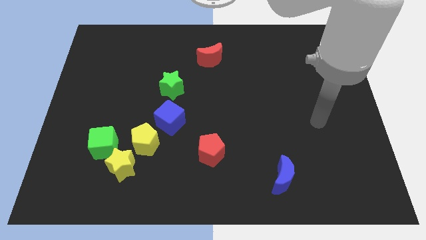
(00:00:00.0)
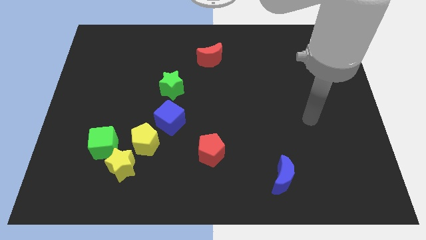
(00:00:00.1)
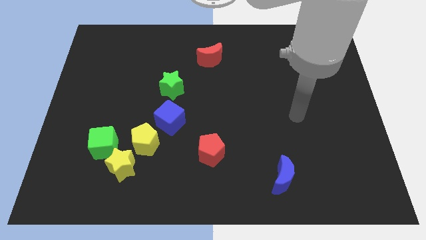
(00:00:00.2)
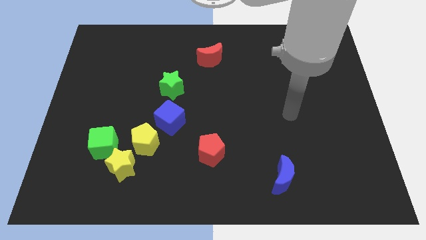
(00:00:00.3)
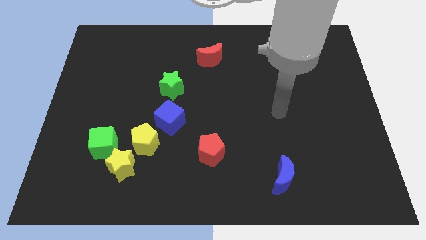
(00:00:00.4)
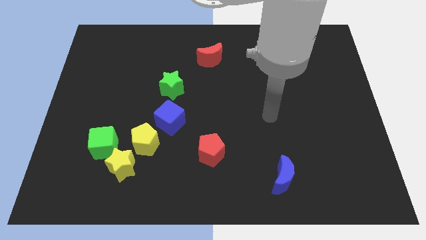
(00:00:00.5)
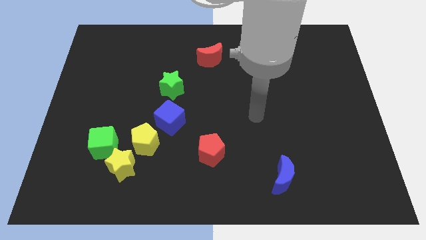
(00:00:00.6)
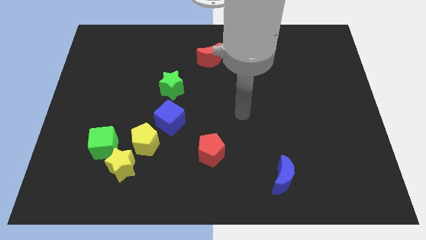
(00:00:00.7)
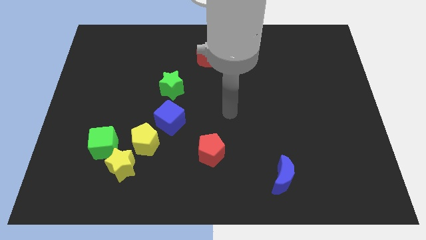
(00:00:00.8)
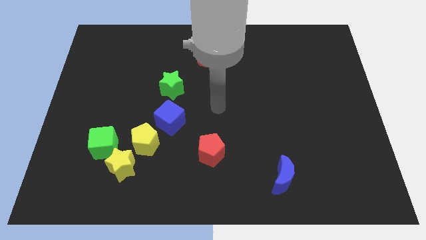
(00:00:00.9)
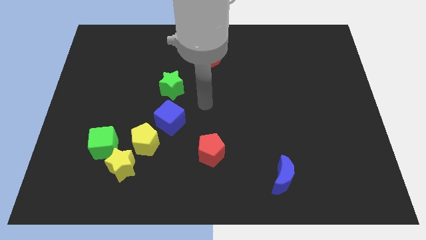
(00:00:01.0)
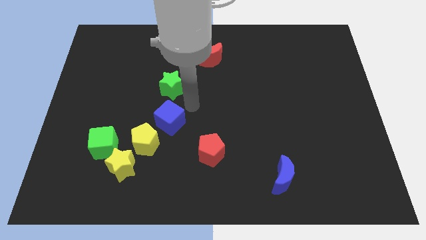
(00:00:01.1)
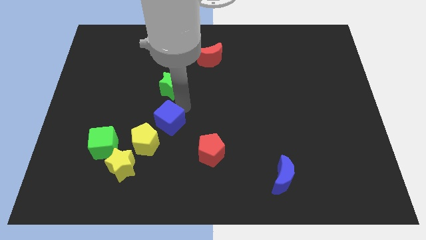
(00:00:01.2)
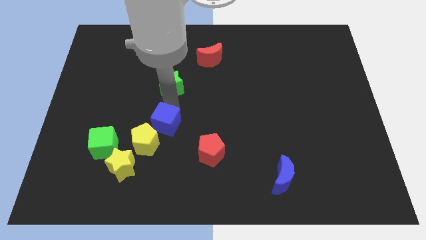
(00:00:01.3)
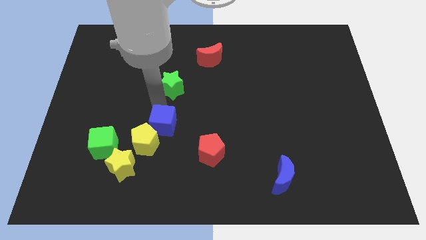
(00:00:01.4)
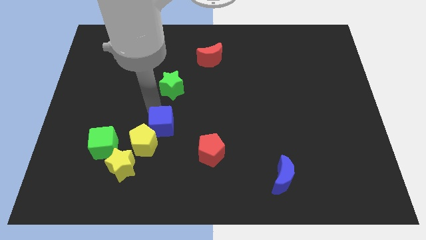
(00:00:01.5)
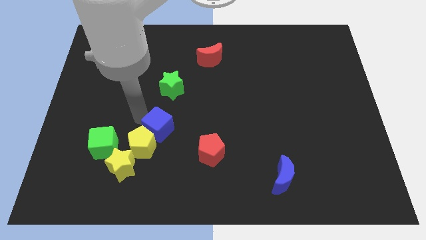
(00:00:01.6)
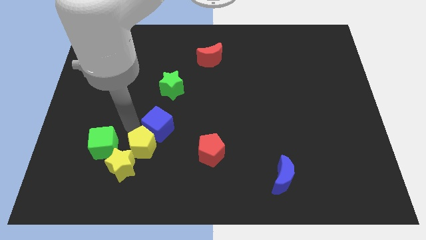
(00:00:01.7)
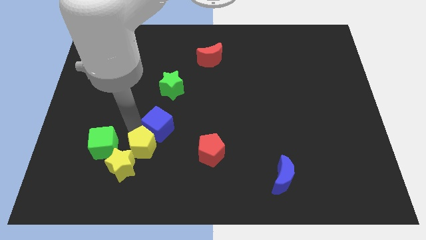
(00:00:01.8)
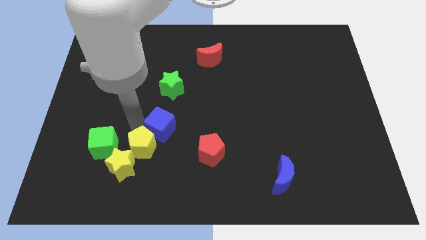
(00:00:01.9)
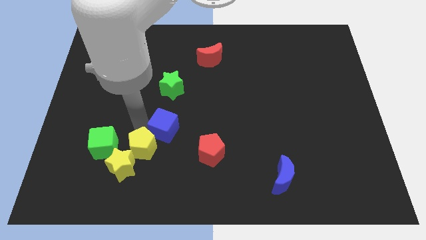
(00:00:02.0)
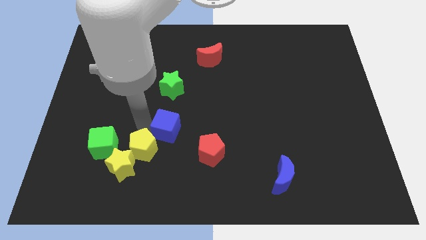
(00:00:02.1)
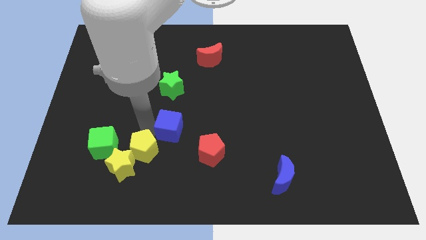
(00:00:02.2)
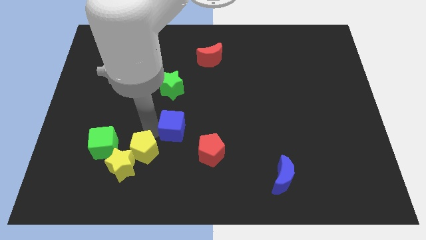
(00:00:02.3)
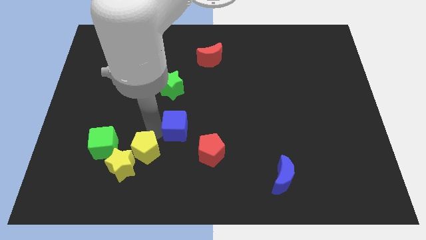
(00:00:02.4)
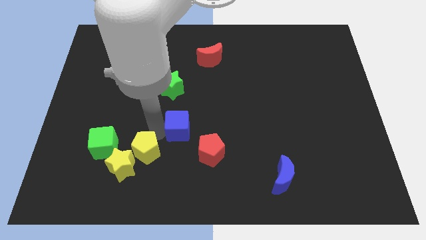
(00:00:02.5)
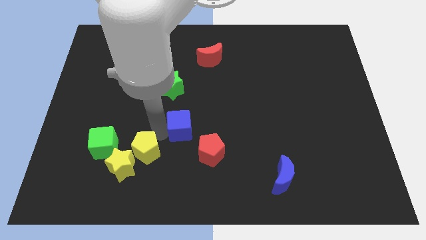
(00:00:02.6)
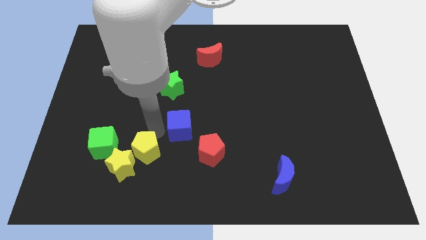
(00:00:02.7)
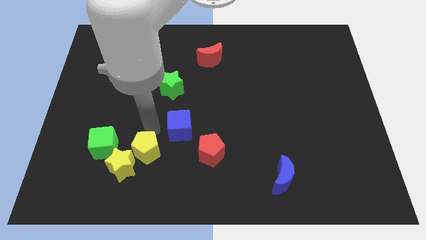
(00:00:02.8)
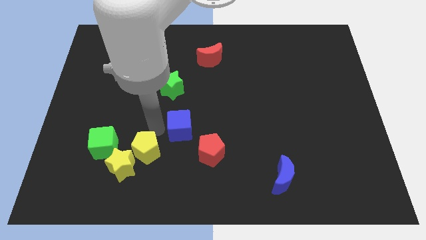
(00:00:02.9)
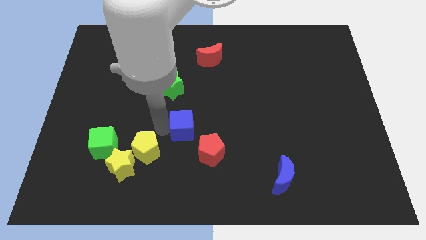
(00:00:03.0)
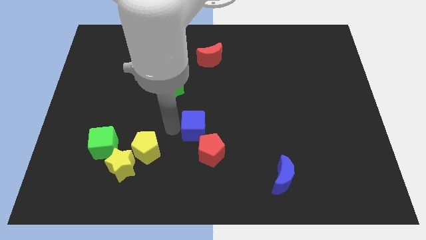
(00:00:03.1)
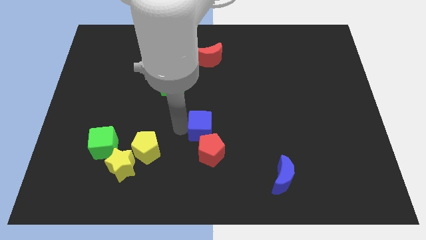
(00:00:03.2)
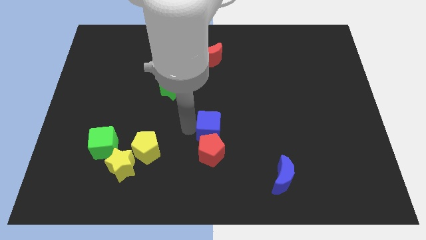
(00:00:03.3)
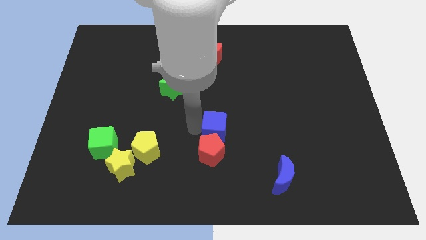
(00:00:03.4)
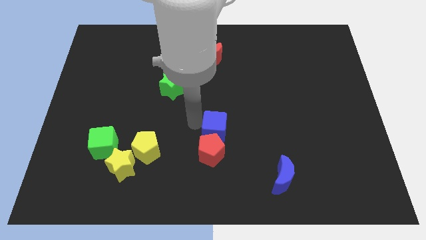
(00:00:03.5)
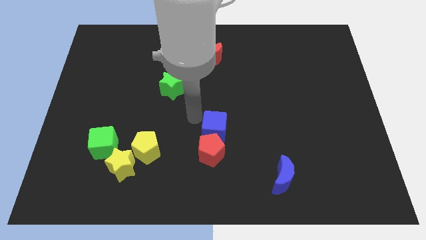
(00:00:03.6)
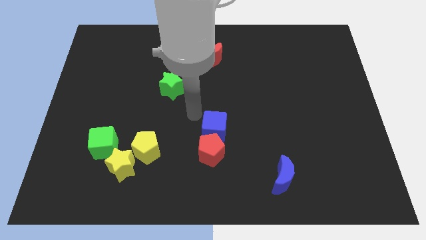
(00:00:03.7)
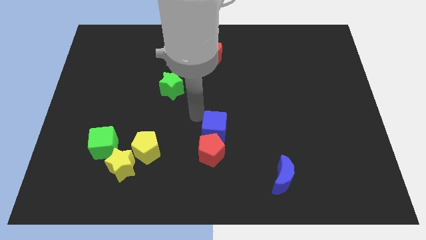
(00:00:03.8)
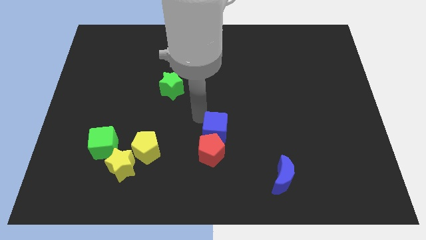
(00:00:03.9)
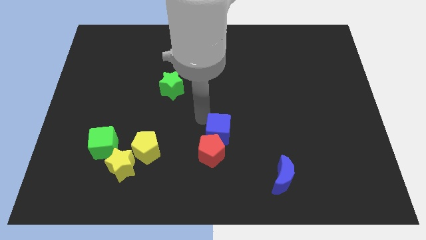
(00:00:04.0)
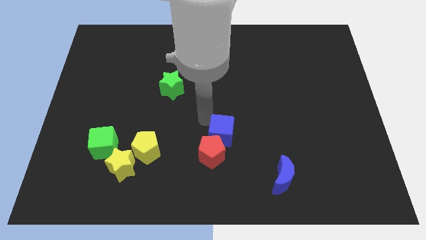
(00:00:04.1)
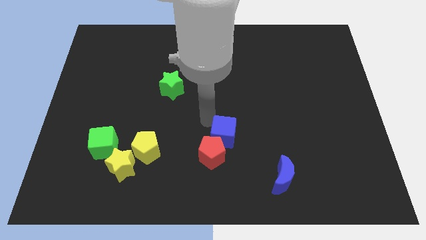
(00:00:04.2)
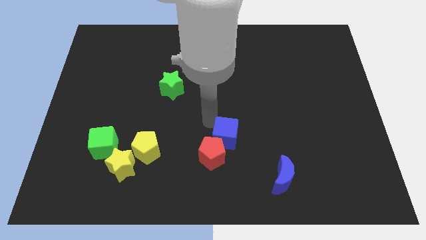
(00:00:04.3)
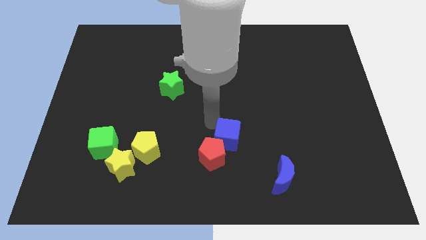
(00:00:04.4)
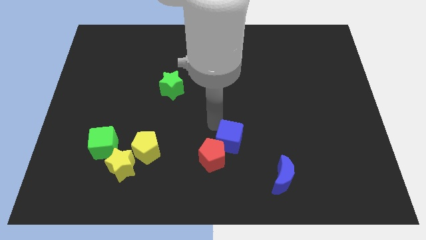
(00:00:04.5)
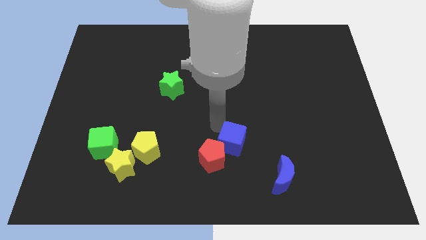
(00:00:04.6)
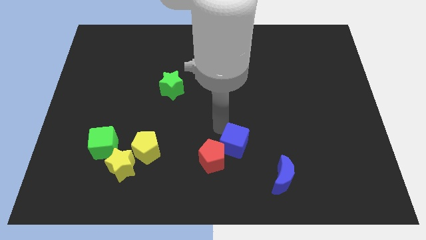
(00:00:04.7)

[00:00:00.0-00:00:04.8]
put the blue cube diagonally up and to the left of the blue moon
